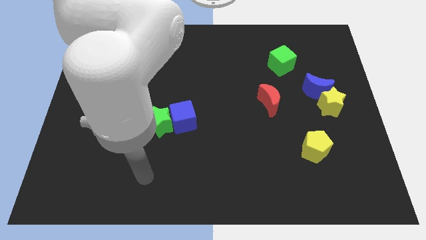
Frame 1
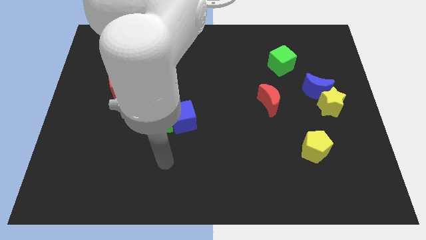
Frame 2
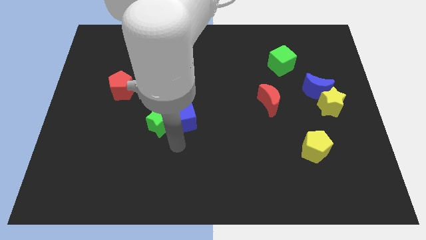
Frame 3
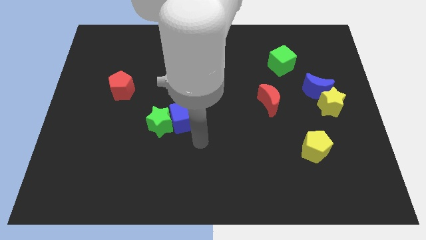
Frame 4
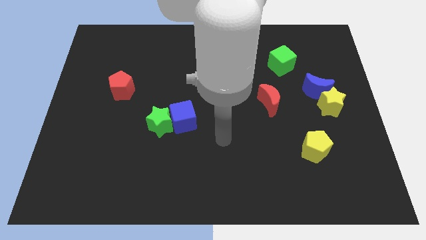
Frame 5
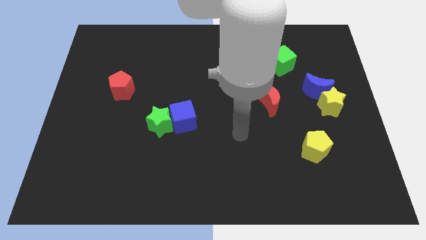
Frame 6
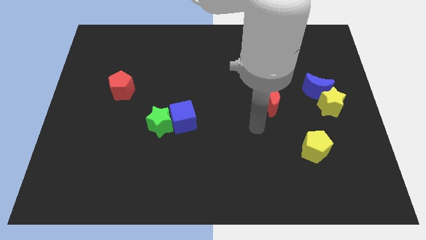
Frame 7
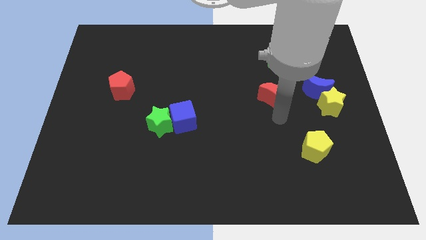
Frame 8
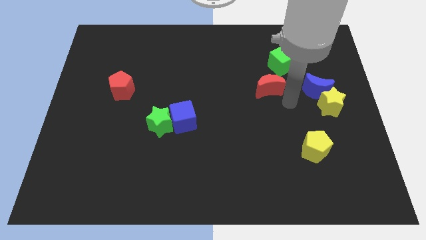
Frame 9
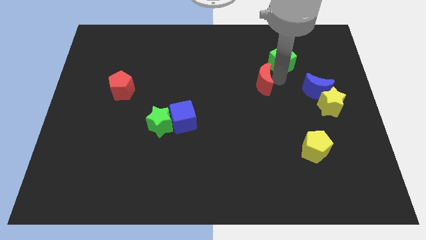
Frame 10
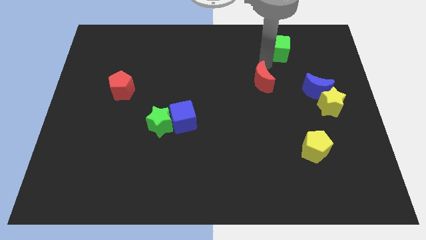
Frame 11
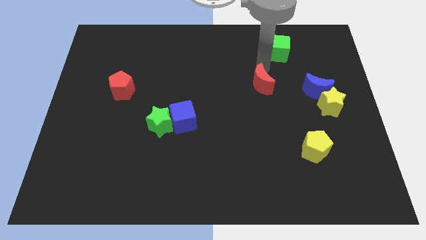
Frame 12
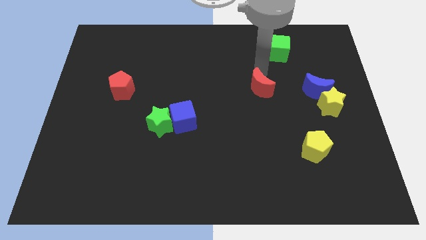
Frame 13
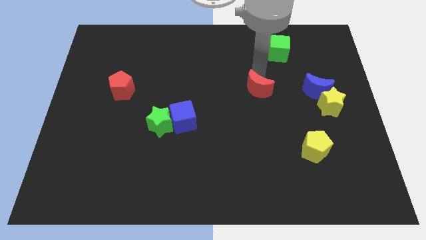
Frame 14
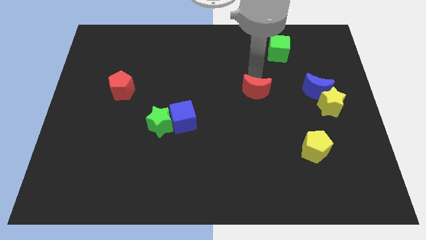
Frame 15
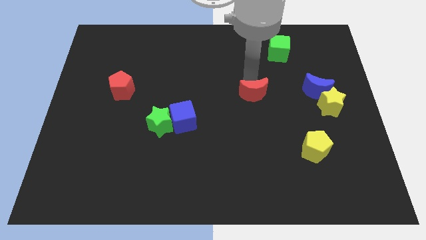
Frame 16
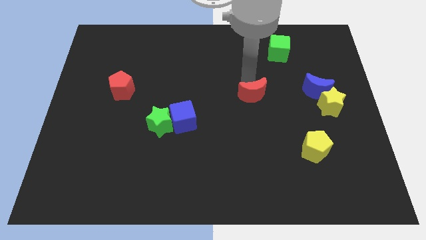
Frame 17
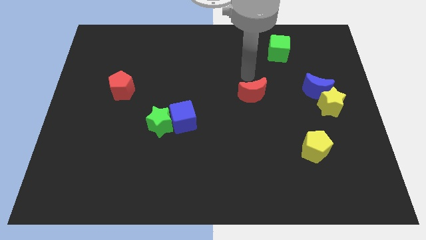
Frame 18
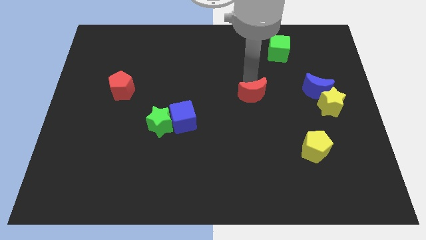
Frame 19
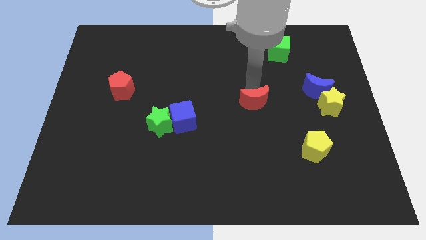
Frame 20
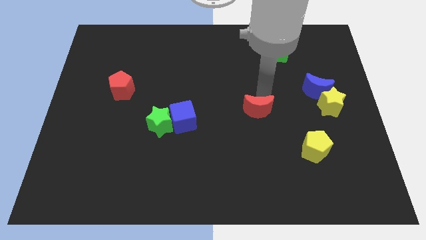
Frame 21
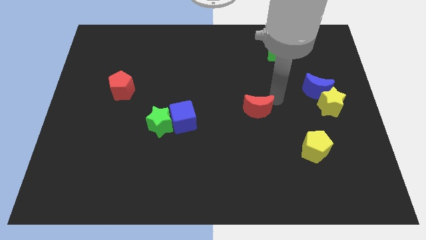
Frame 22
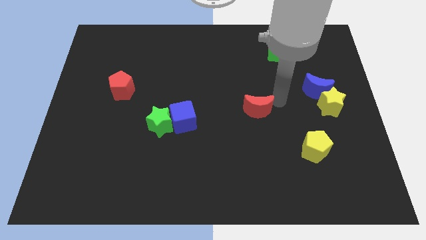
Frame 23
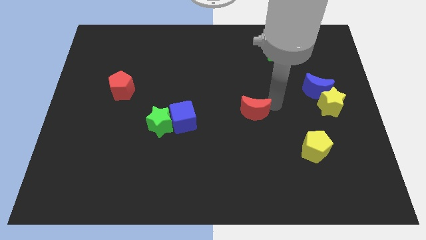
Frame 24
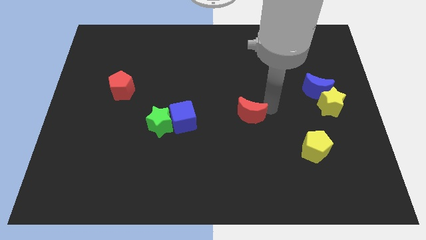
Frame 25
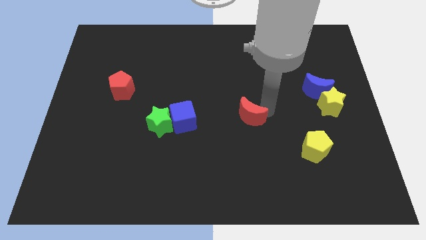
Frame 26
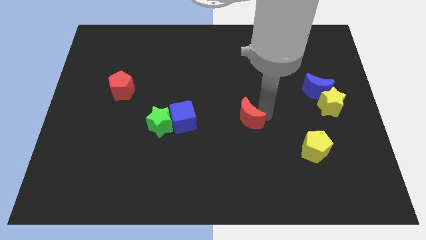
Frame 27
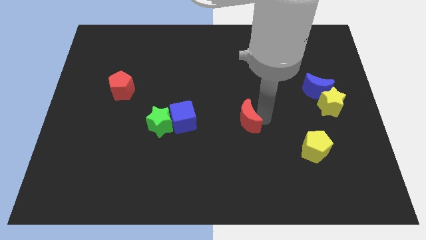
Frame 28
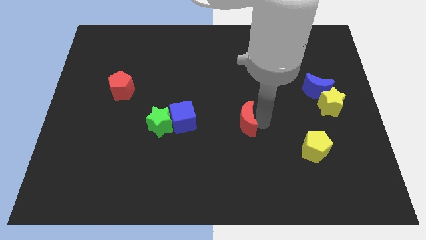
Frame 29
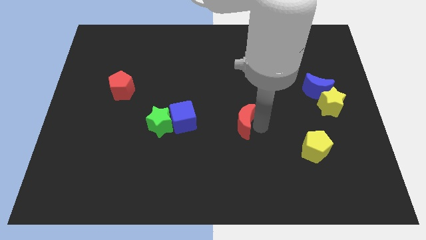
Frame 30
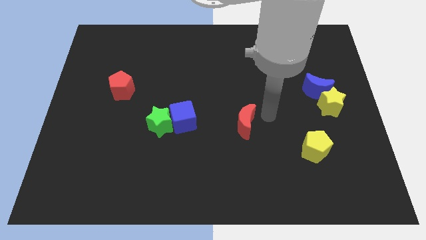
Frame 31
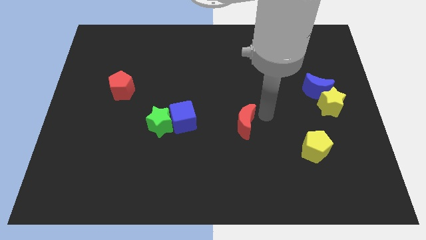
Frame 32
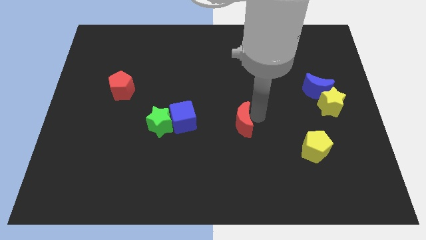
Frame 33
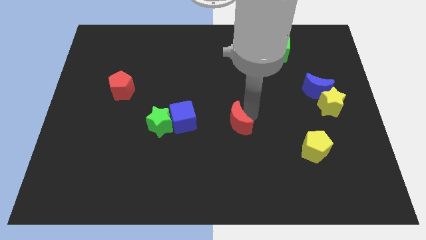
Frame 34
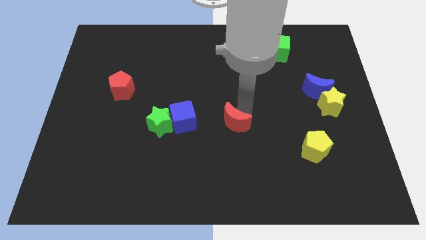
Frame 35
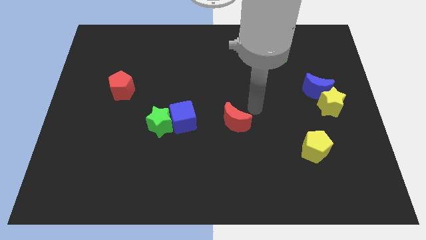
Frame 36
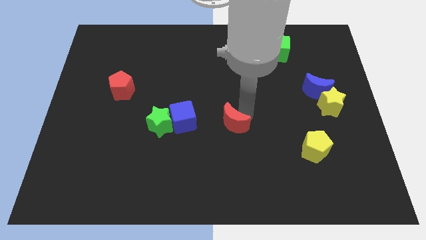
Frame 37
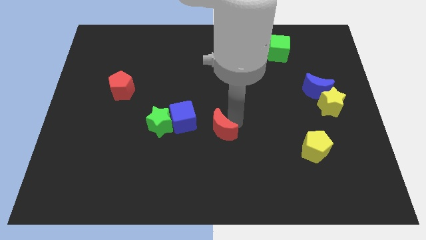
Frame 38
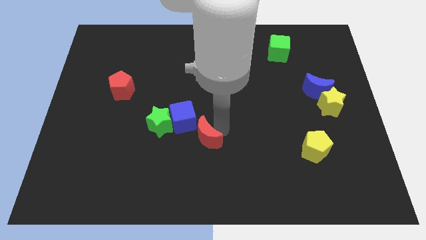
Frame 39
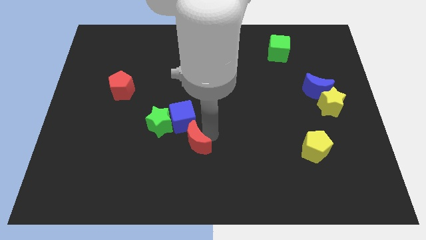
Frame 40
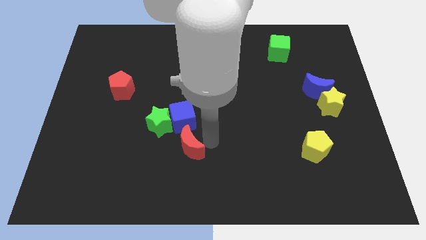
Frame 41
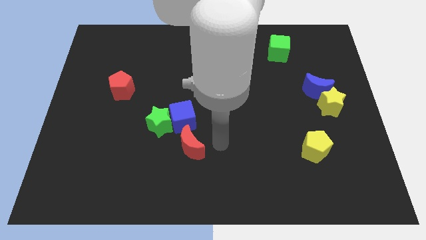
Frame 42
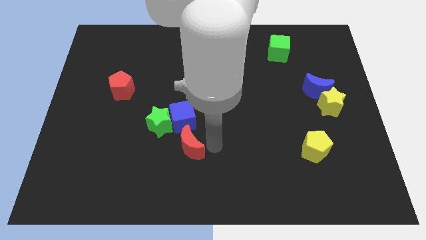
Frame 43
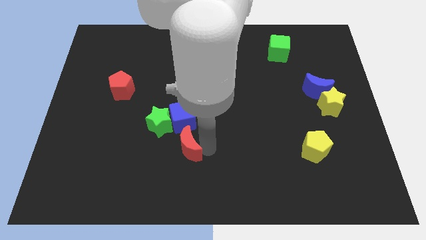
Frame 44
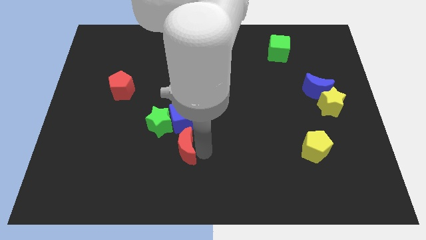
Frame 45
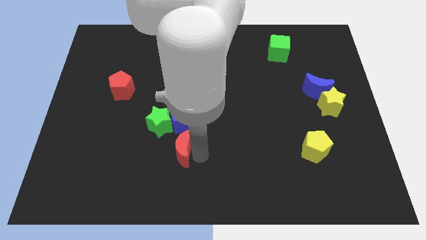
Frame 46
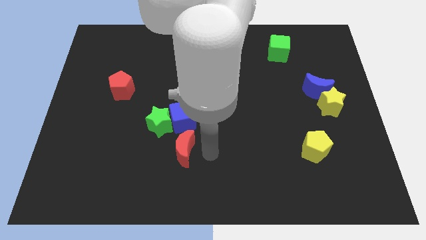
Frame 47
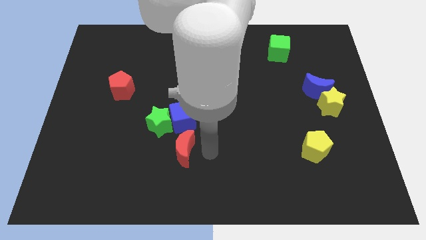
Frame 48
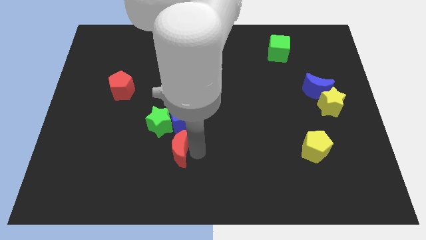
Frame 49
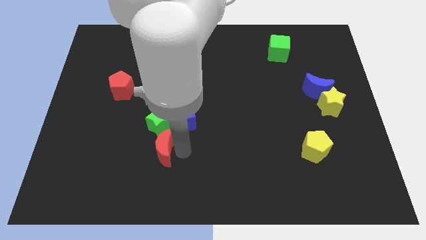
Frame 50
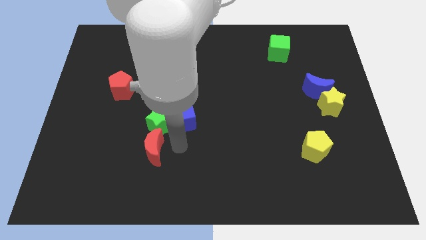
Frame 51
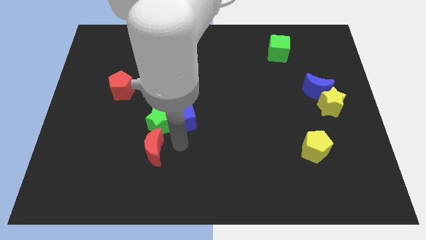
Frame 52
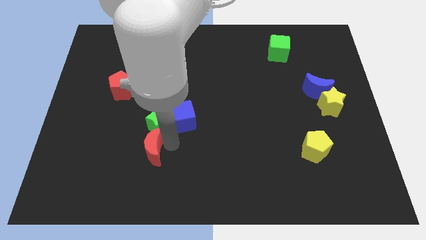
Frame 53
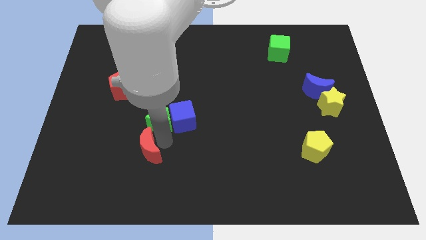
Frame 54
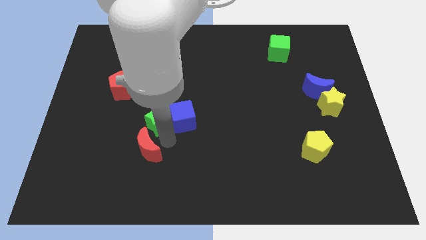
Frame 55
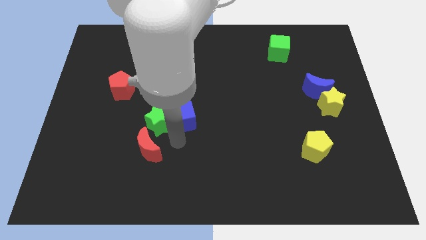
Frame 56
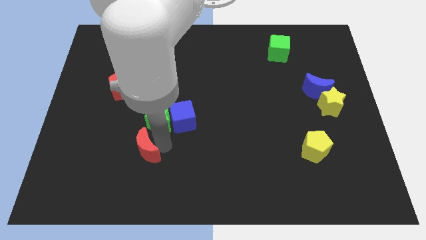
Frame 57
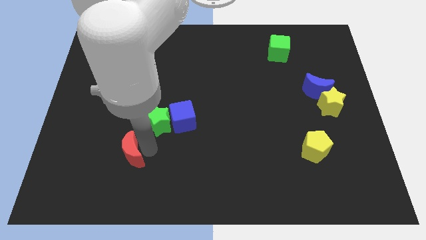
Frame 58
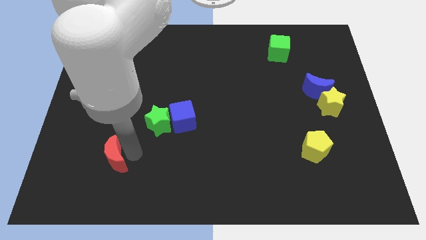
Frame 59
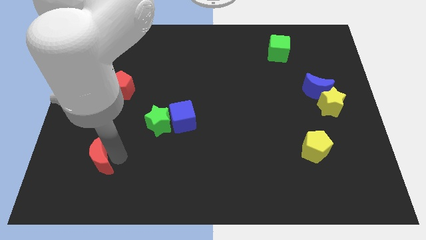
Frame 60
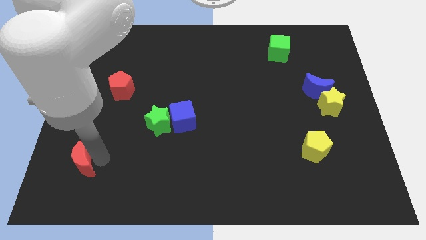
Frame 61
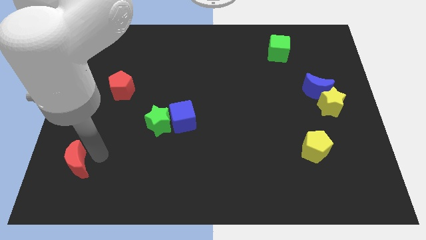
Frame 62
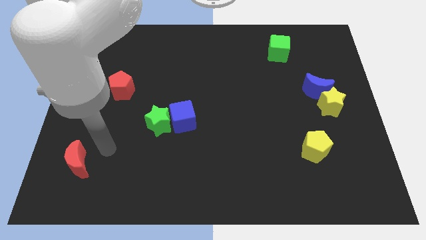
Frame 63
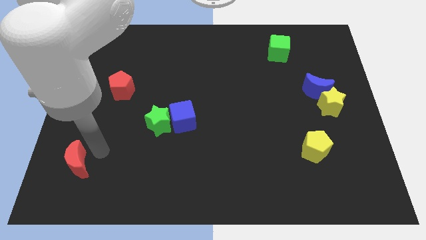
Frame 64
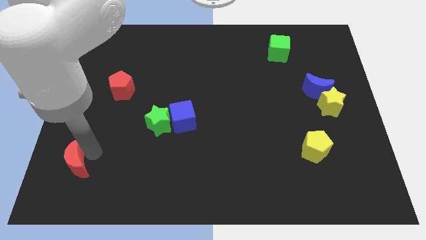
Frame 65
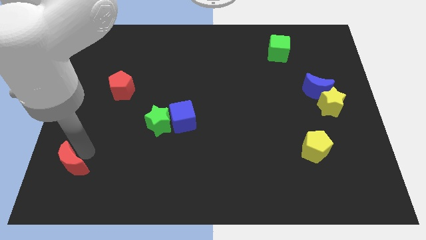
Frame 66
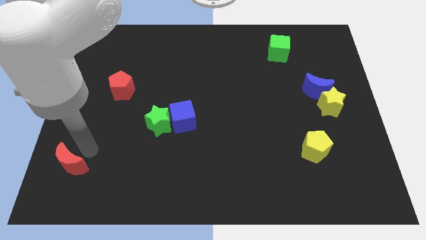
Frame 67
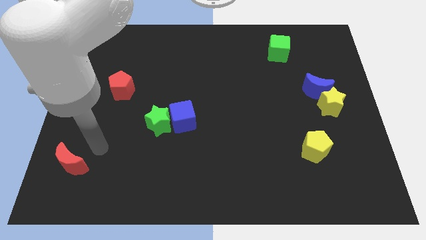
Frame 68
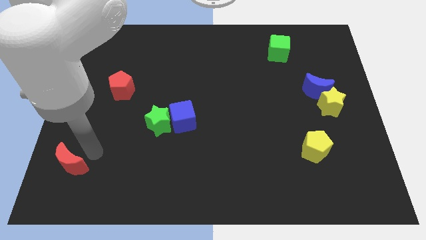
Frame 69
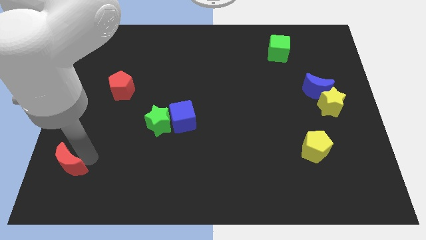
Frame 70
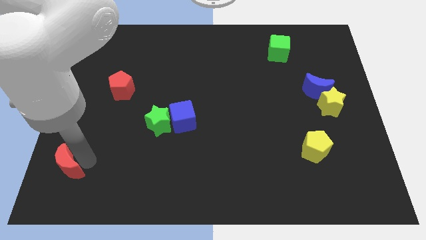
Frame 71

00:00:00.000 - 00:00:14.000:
move the red moon to the bottom left
